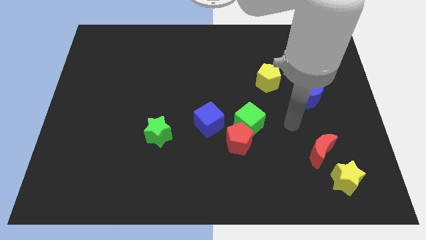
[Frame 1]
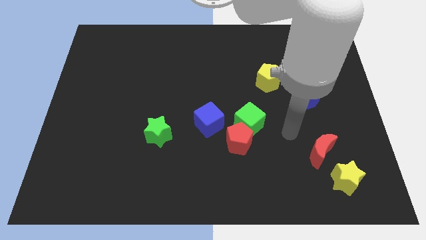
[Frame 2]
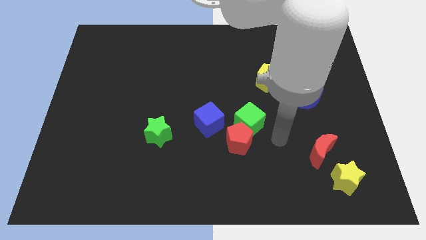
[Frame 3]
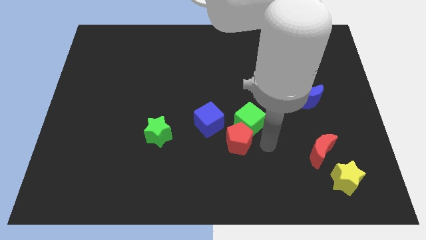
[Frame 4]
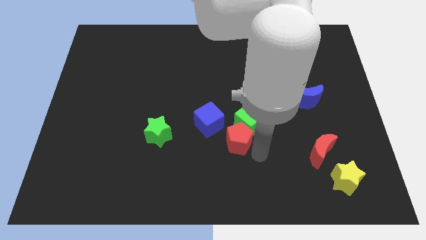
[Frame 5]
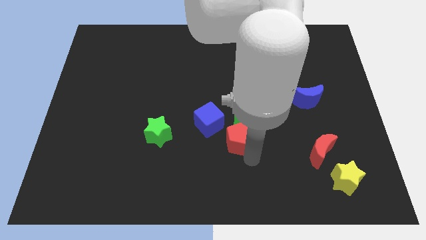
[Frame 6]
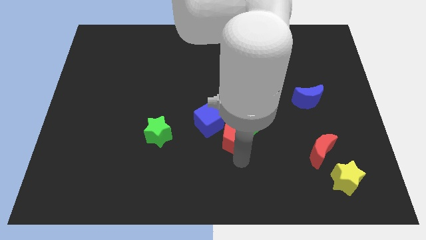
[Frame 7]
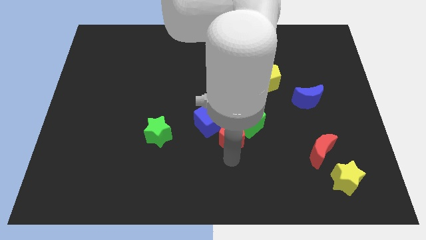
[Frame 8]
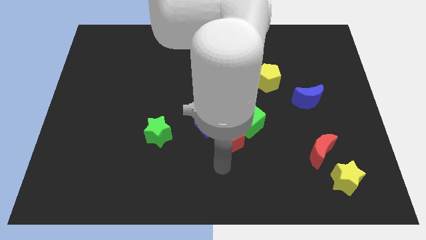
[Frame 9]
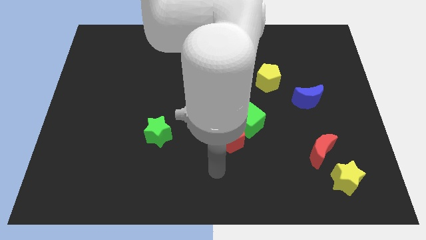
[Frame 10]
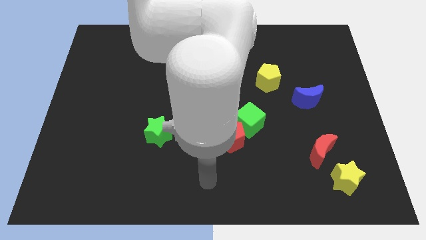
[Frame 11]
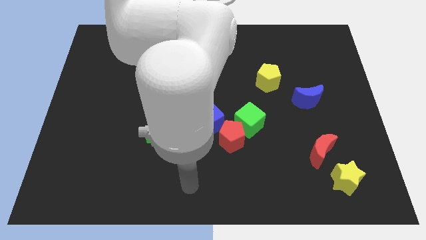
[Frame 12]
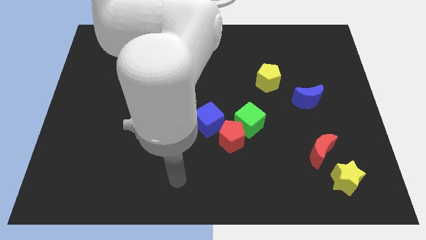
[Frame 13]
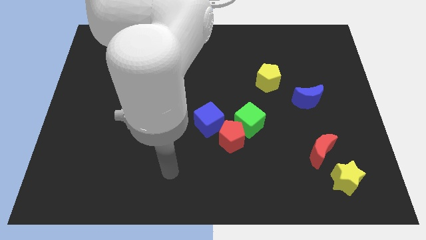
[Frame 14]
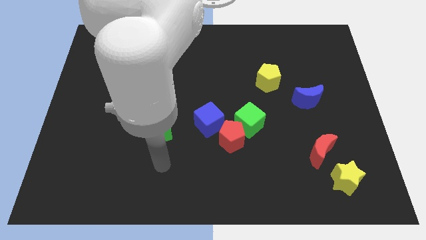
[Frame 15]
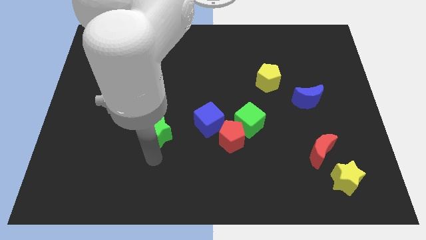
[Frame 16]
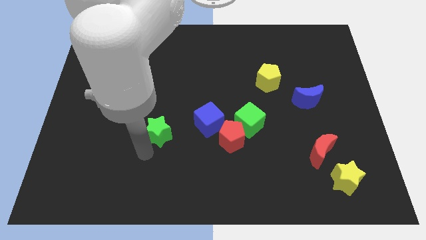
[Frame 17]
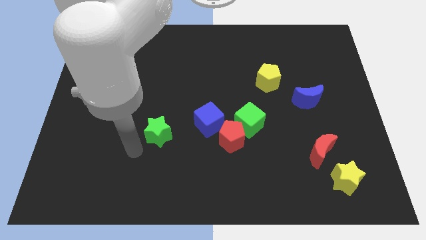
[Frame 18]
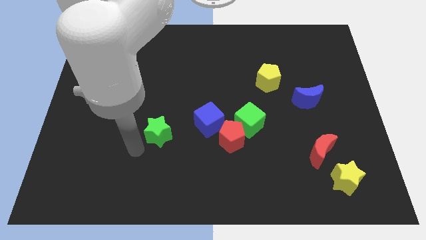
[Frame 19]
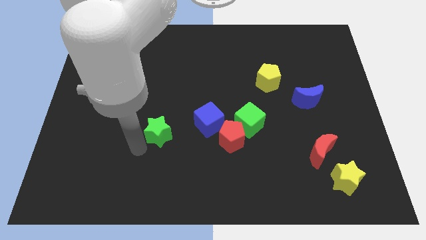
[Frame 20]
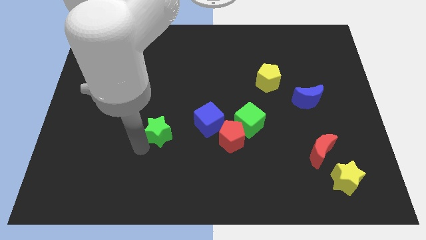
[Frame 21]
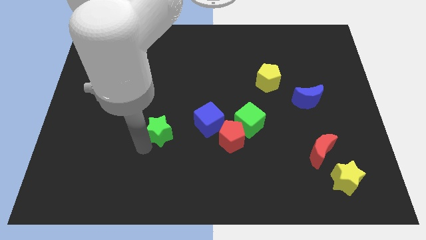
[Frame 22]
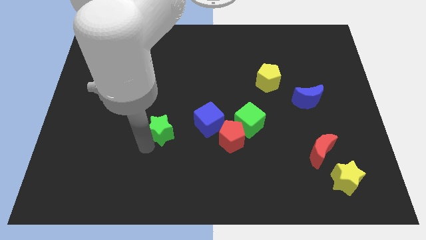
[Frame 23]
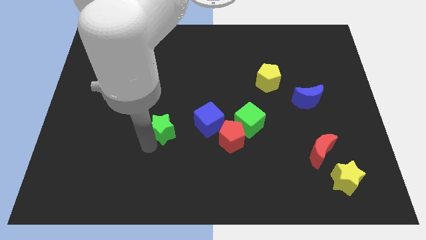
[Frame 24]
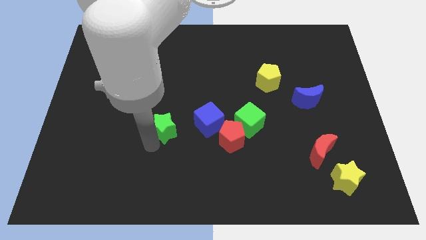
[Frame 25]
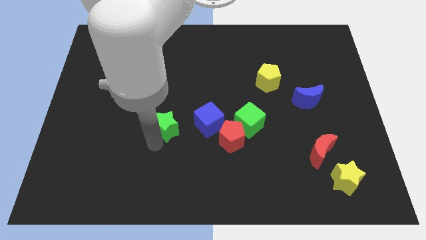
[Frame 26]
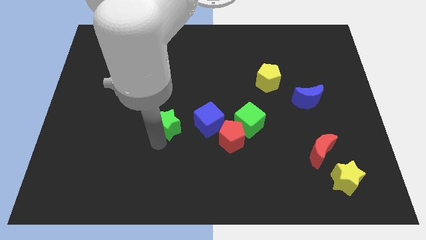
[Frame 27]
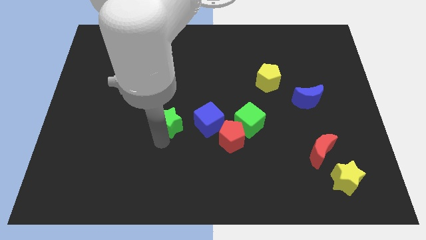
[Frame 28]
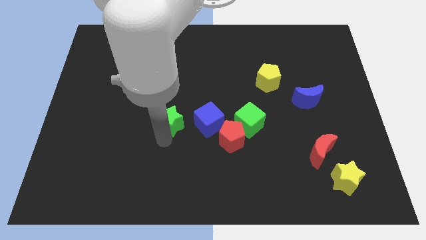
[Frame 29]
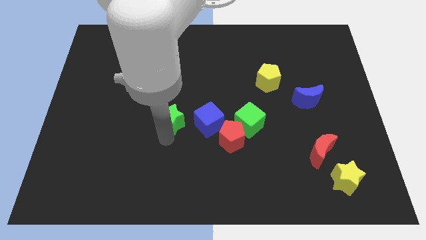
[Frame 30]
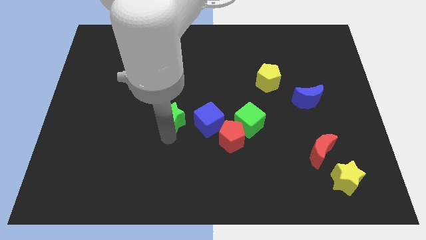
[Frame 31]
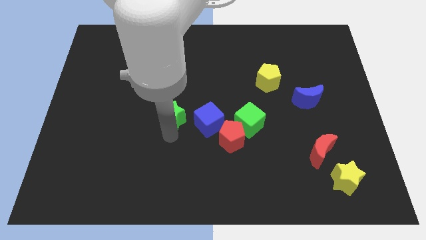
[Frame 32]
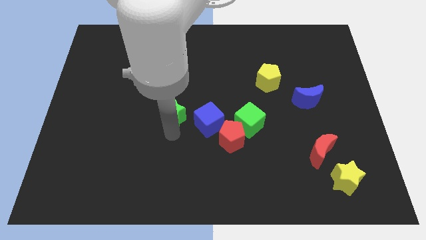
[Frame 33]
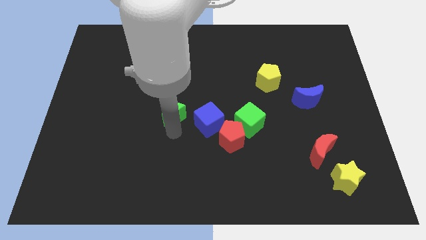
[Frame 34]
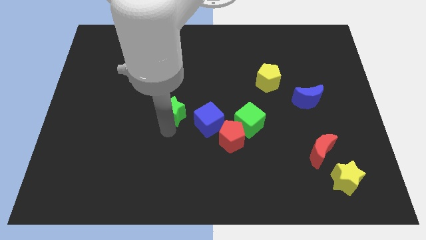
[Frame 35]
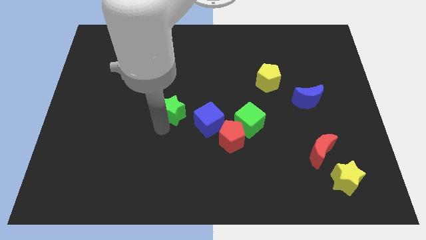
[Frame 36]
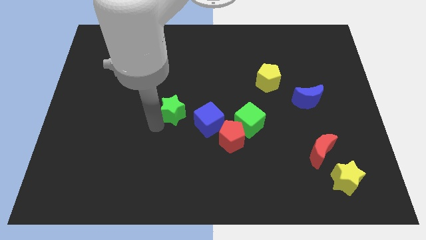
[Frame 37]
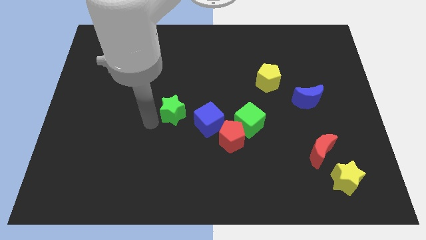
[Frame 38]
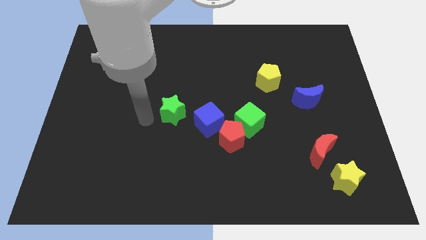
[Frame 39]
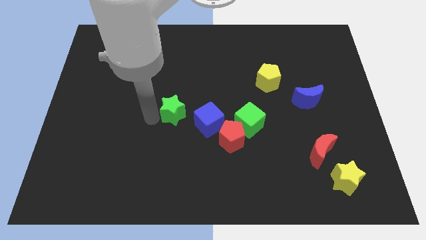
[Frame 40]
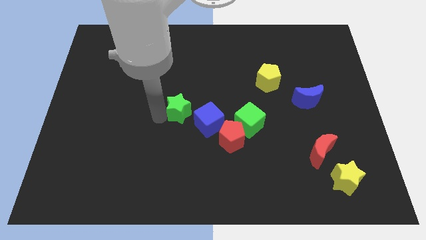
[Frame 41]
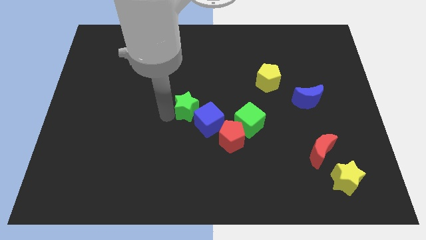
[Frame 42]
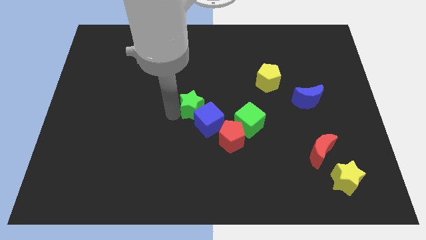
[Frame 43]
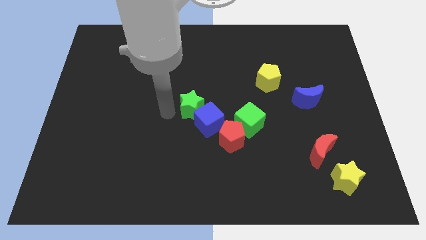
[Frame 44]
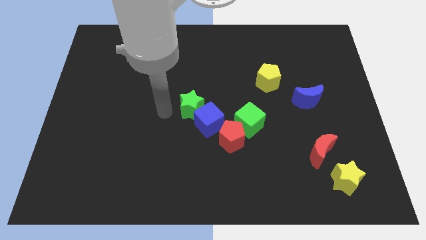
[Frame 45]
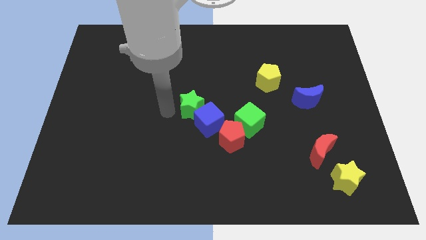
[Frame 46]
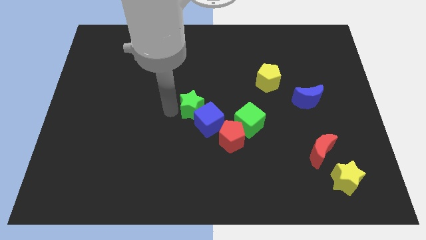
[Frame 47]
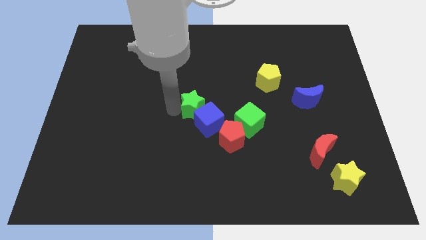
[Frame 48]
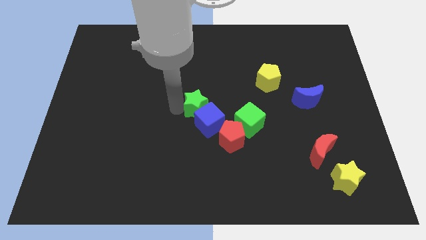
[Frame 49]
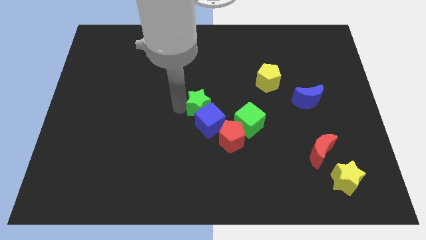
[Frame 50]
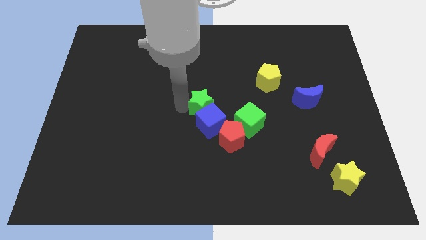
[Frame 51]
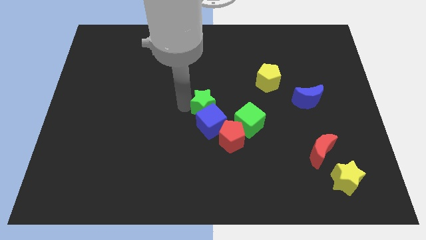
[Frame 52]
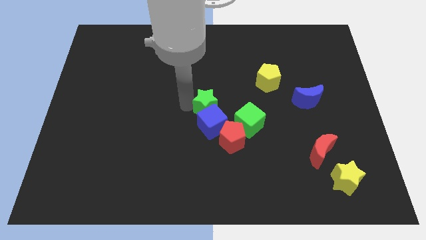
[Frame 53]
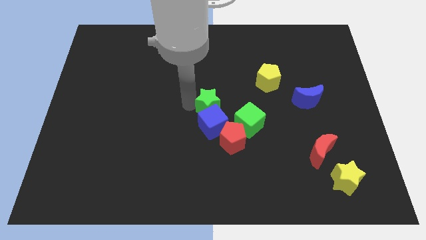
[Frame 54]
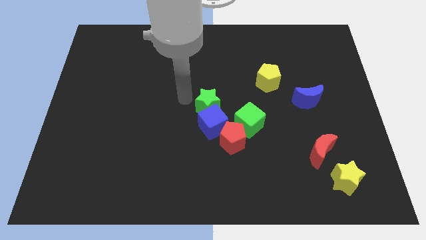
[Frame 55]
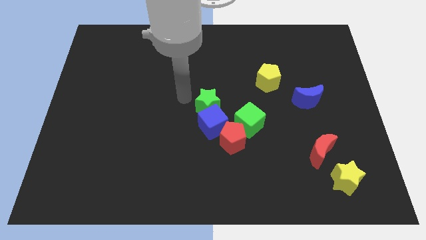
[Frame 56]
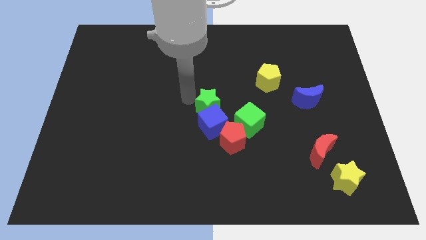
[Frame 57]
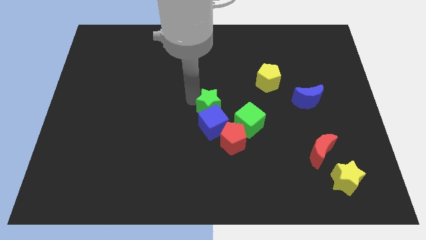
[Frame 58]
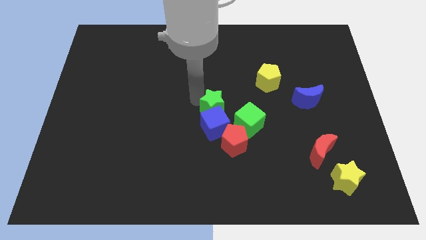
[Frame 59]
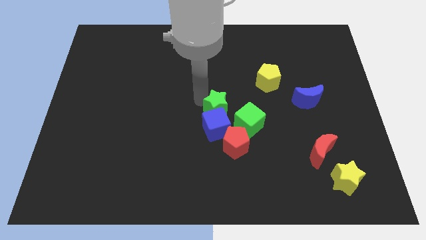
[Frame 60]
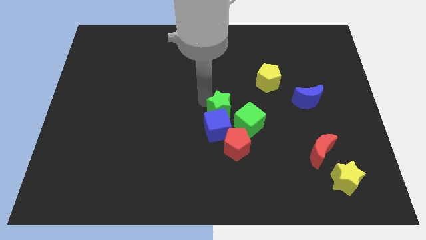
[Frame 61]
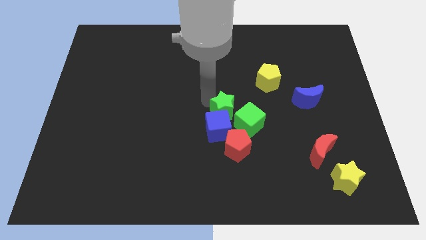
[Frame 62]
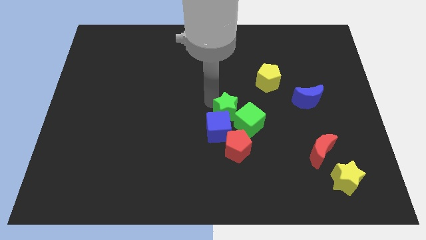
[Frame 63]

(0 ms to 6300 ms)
put the green star next to the green cube

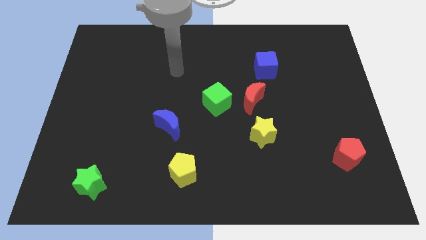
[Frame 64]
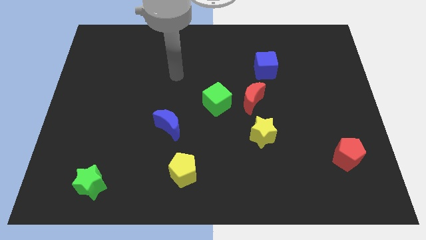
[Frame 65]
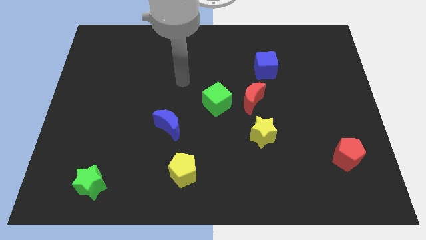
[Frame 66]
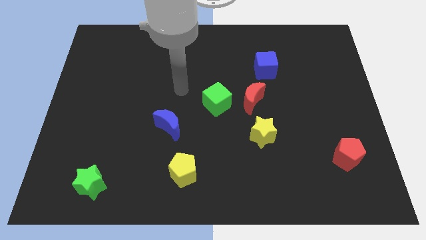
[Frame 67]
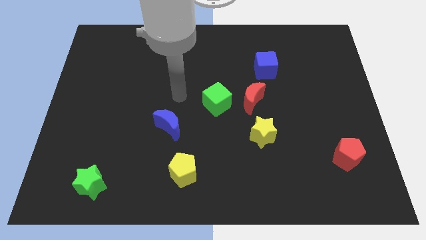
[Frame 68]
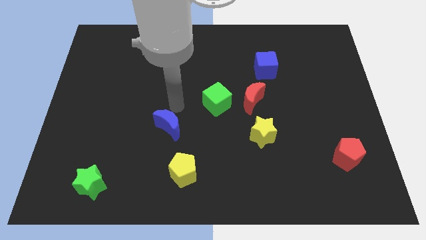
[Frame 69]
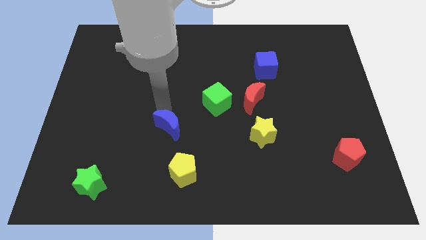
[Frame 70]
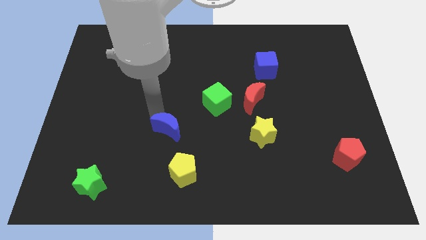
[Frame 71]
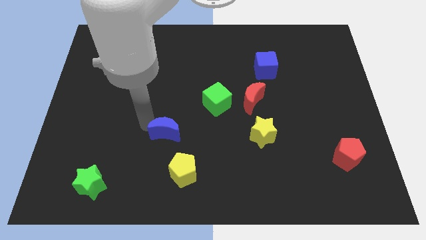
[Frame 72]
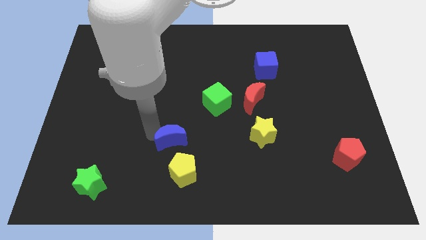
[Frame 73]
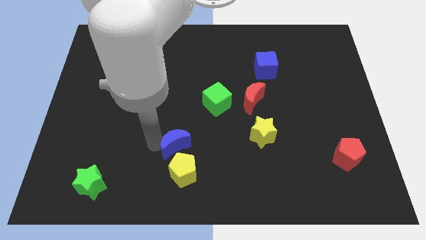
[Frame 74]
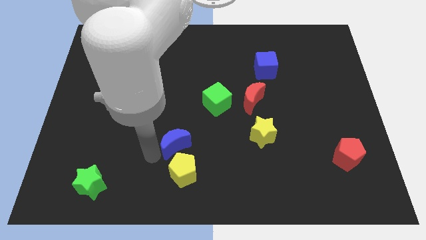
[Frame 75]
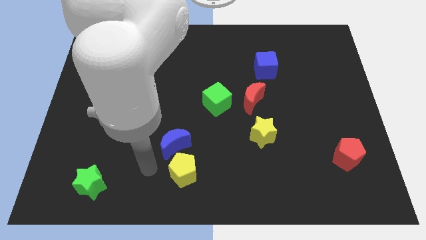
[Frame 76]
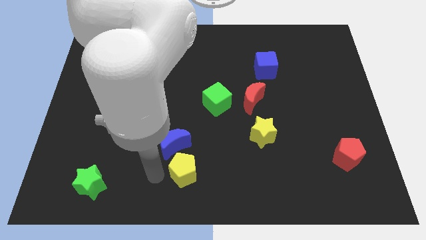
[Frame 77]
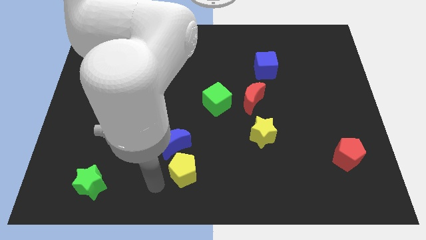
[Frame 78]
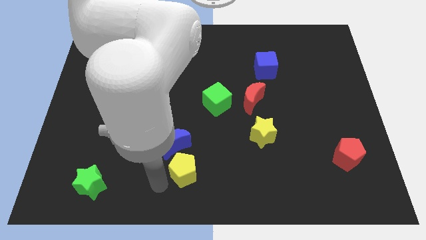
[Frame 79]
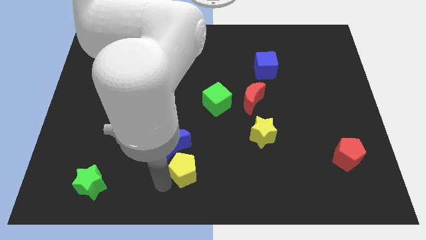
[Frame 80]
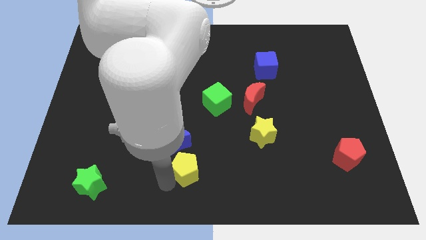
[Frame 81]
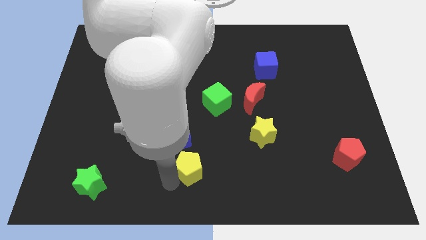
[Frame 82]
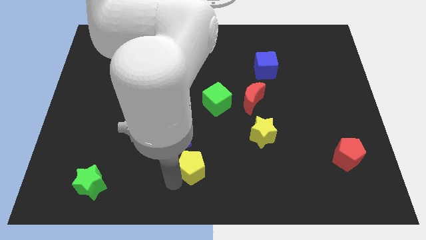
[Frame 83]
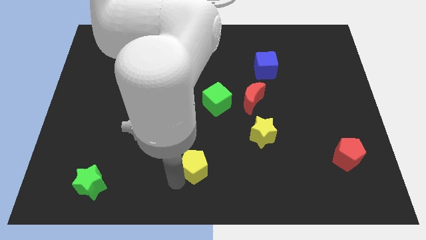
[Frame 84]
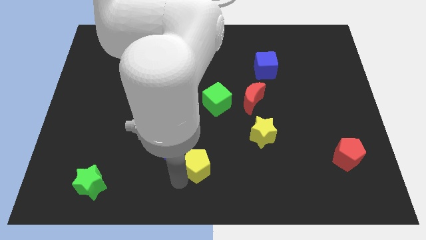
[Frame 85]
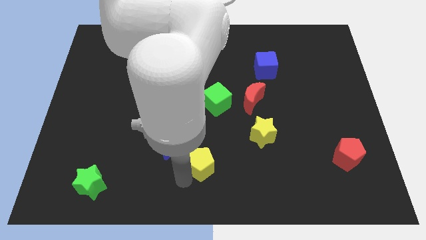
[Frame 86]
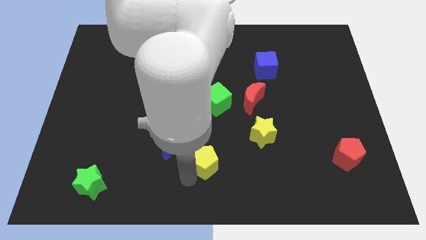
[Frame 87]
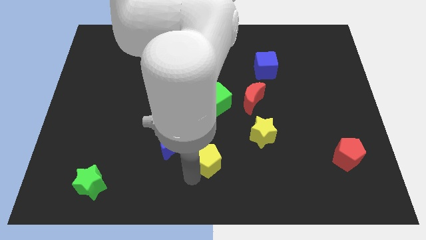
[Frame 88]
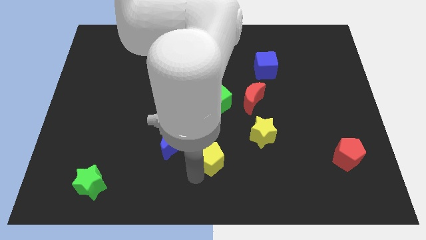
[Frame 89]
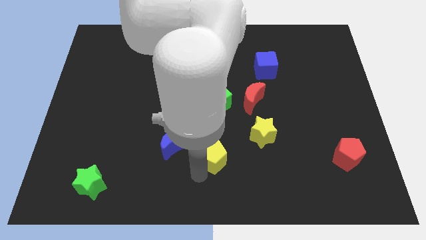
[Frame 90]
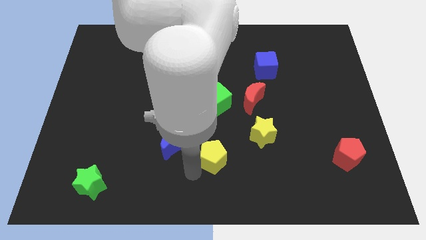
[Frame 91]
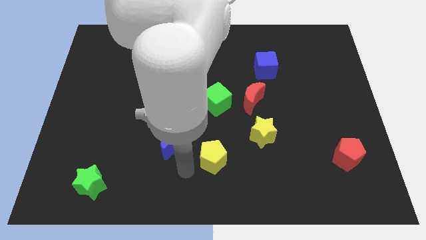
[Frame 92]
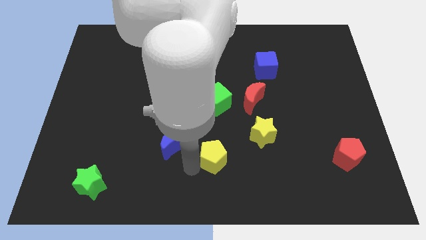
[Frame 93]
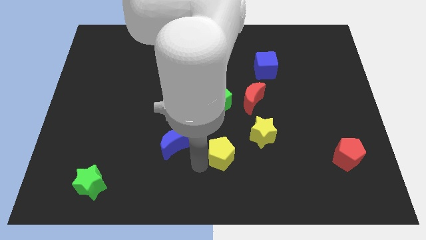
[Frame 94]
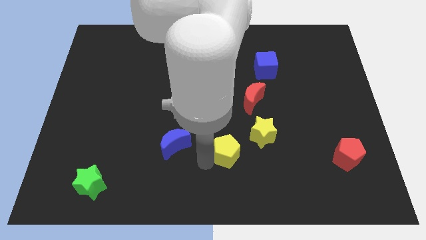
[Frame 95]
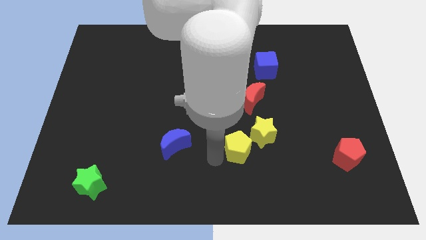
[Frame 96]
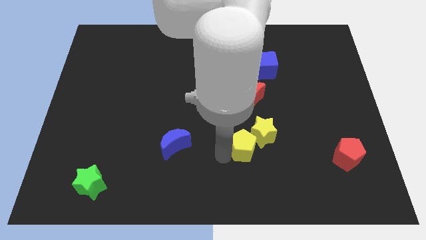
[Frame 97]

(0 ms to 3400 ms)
slide the yellow pentagon towards the yellow star
